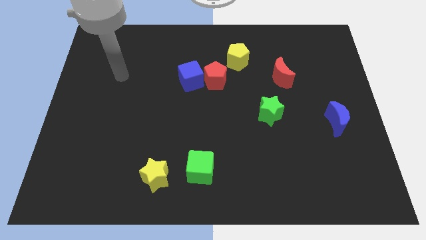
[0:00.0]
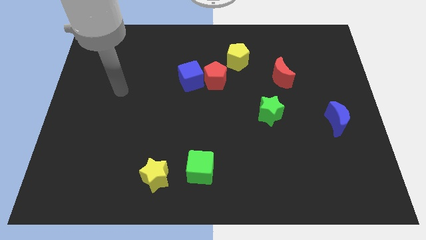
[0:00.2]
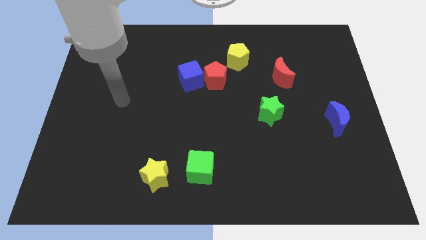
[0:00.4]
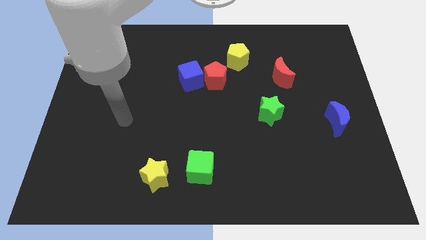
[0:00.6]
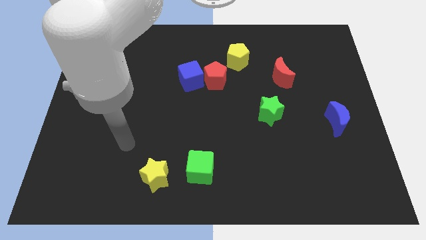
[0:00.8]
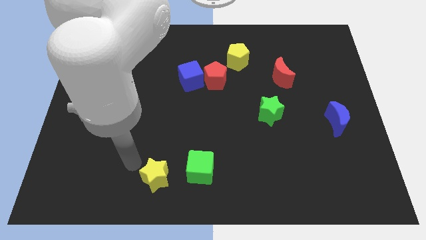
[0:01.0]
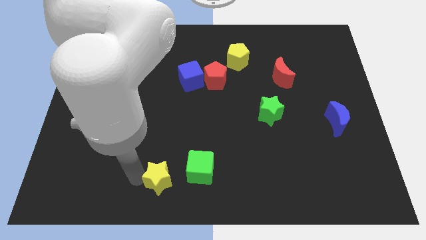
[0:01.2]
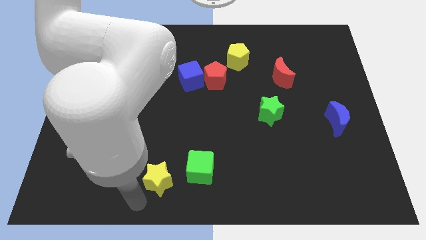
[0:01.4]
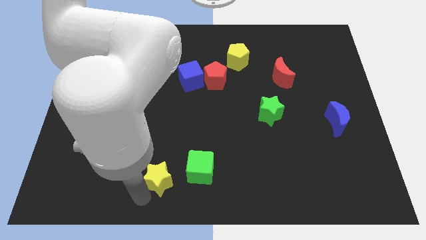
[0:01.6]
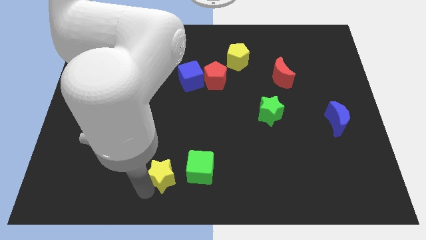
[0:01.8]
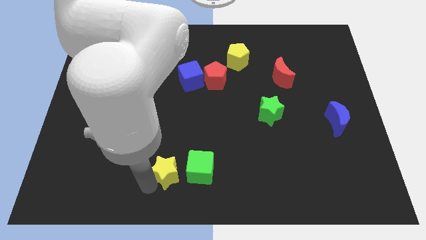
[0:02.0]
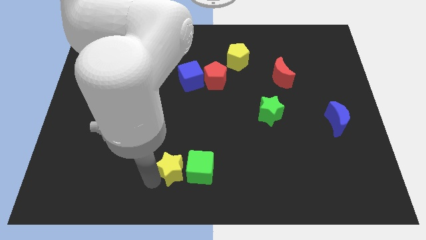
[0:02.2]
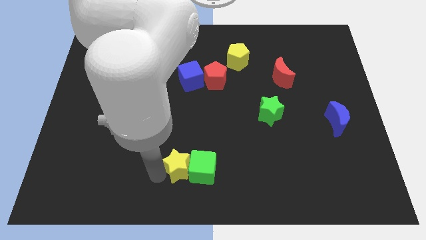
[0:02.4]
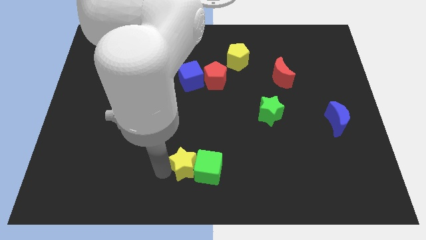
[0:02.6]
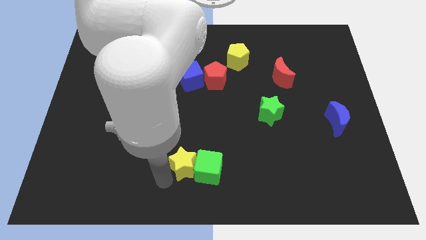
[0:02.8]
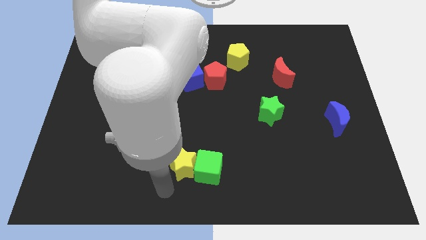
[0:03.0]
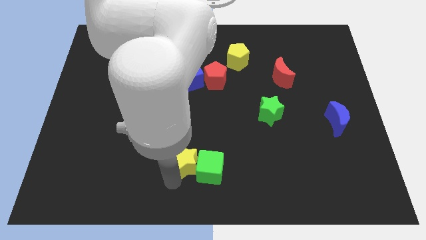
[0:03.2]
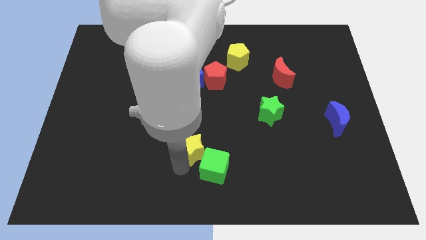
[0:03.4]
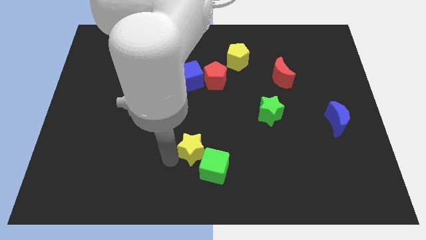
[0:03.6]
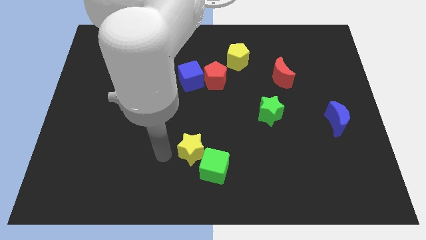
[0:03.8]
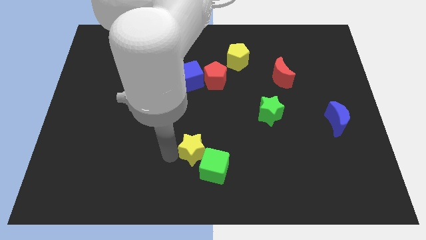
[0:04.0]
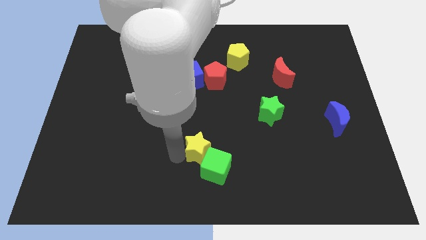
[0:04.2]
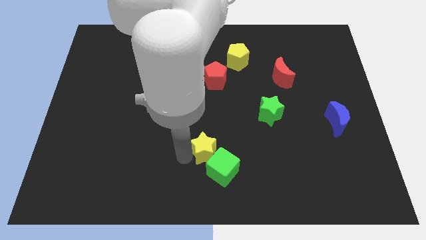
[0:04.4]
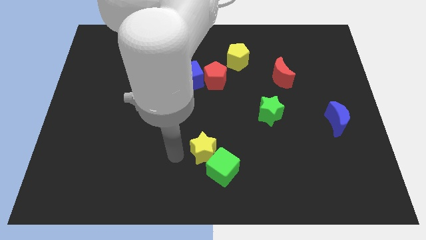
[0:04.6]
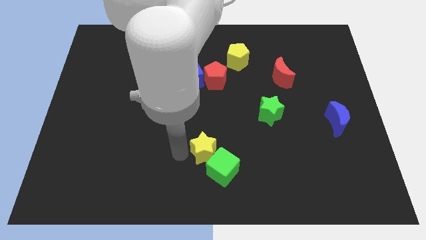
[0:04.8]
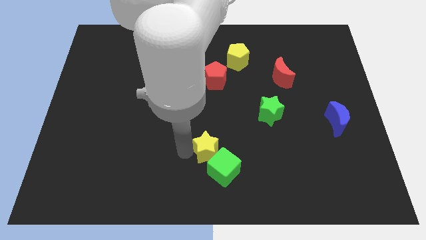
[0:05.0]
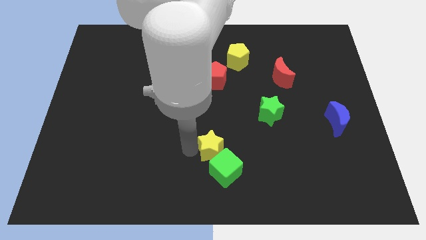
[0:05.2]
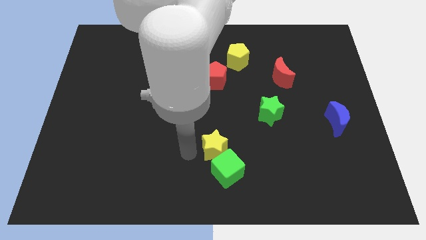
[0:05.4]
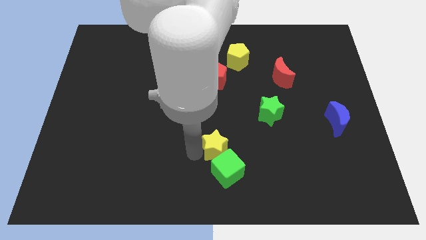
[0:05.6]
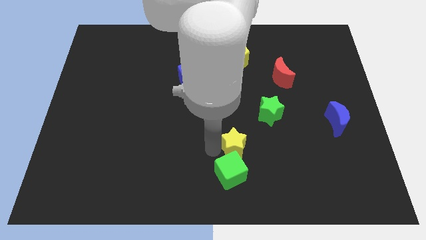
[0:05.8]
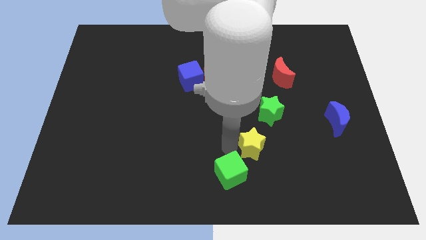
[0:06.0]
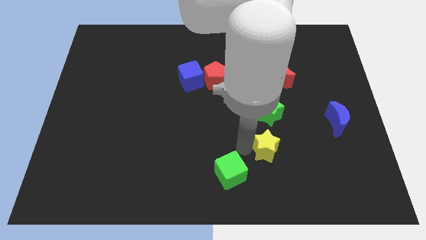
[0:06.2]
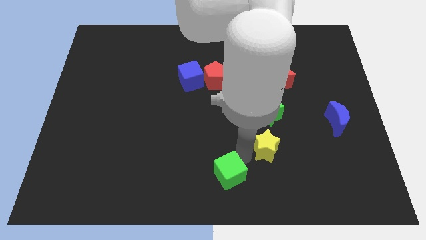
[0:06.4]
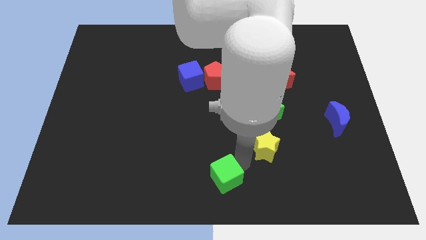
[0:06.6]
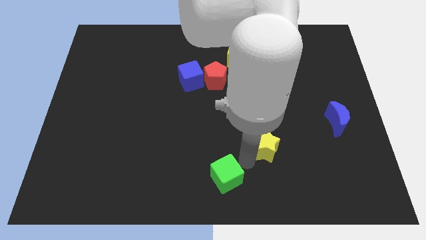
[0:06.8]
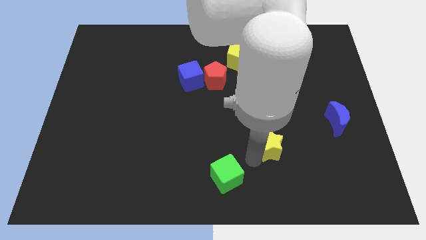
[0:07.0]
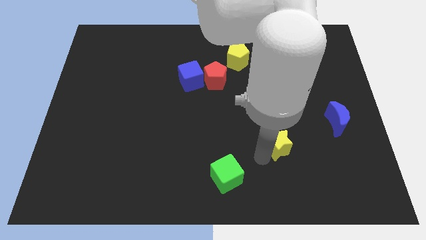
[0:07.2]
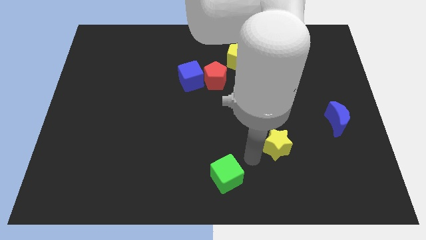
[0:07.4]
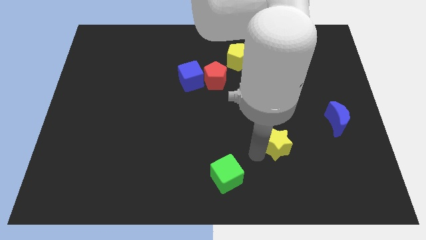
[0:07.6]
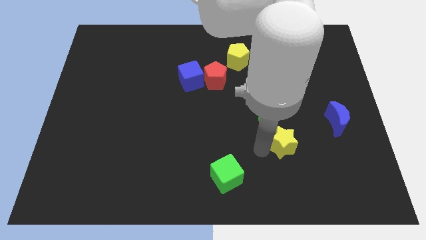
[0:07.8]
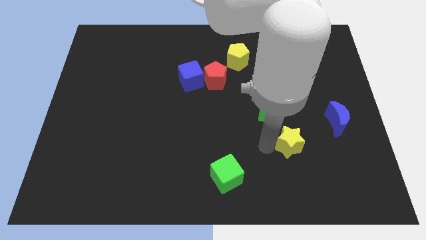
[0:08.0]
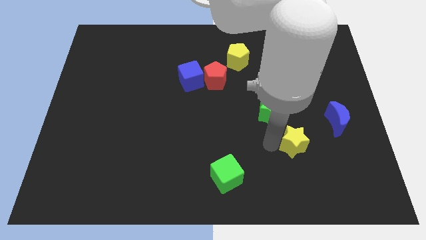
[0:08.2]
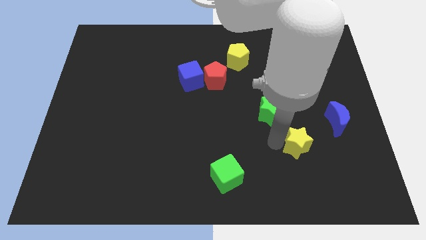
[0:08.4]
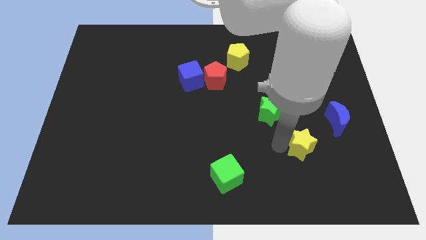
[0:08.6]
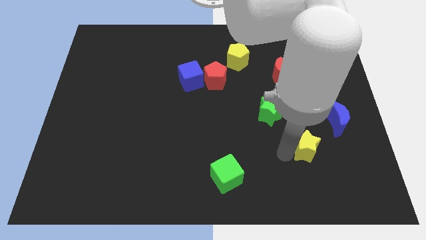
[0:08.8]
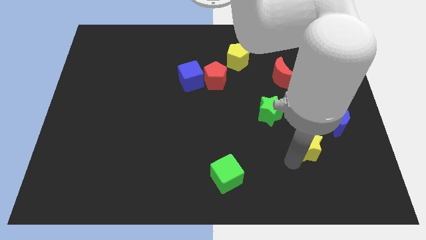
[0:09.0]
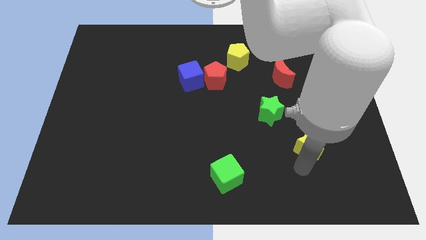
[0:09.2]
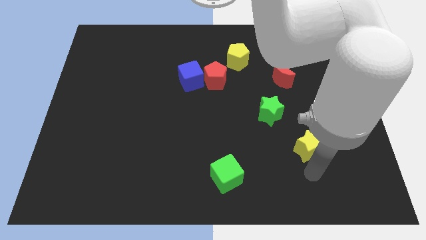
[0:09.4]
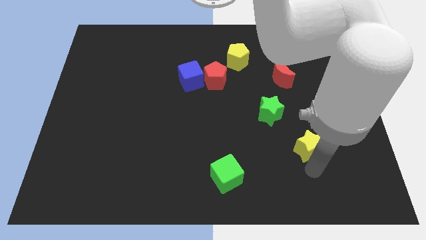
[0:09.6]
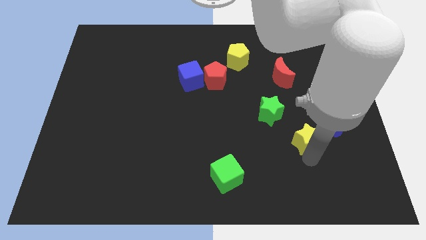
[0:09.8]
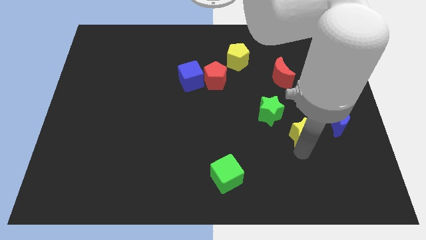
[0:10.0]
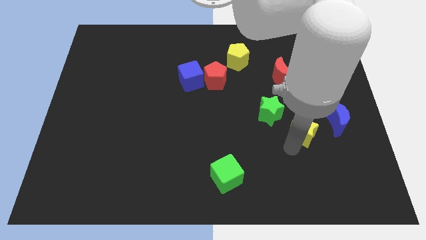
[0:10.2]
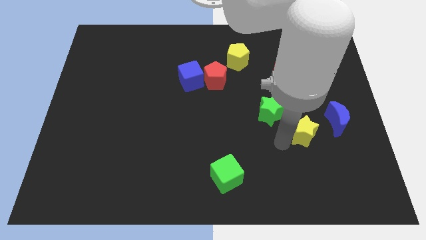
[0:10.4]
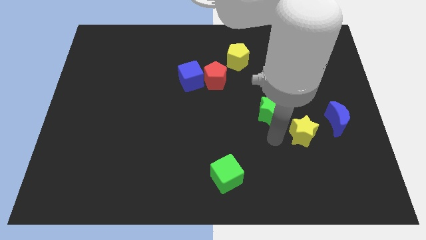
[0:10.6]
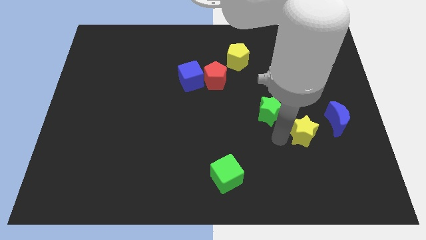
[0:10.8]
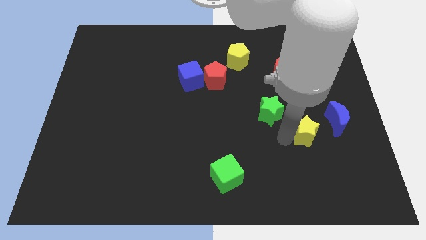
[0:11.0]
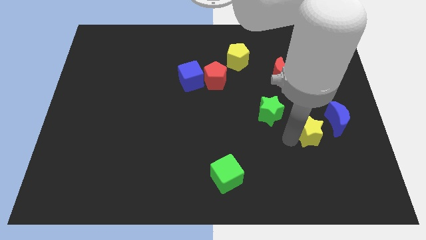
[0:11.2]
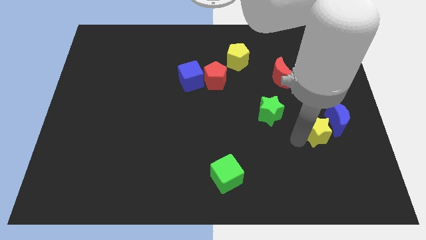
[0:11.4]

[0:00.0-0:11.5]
push the yellow star towards the blue moon

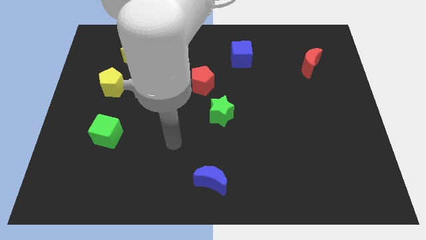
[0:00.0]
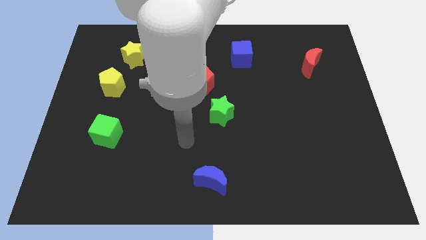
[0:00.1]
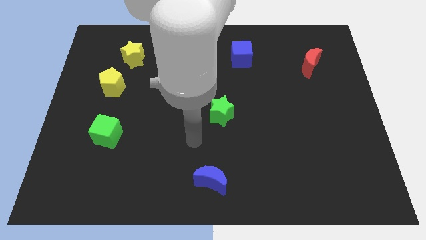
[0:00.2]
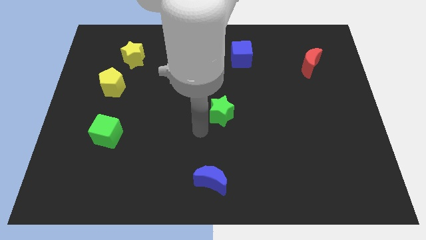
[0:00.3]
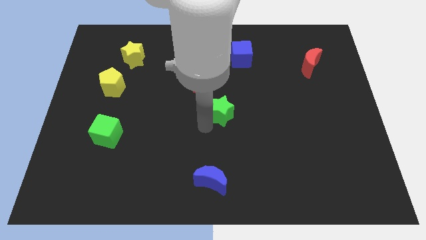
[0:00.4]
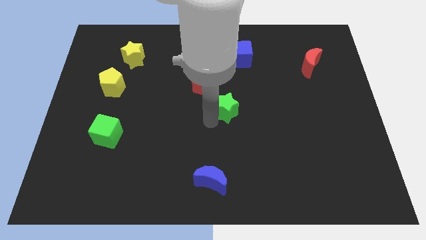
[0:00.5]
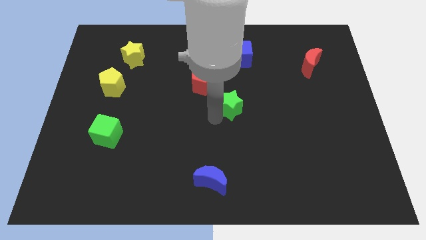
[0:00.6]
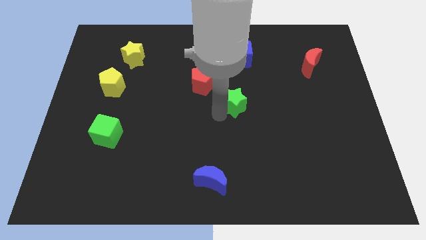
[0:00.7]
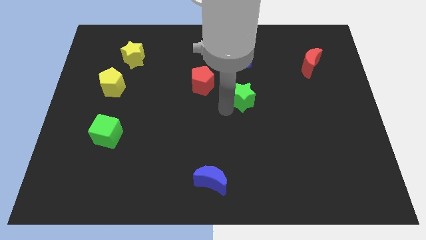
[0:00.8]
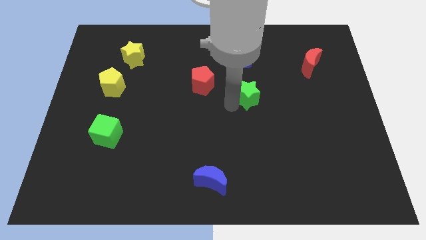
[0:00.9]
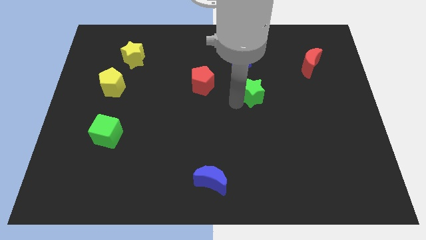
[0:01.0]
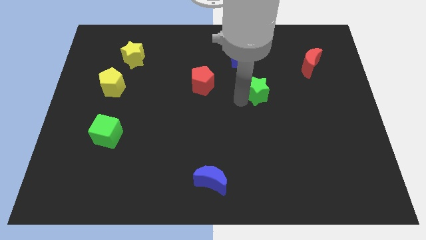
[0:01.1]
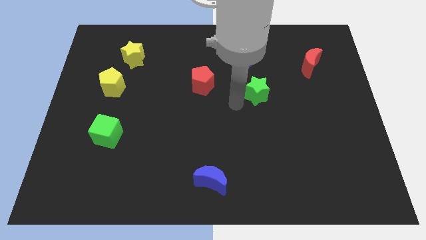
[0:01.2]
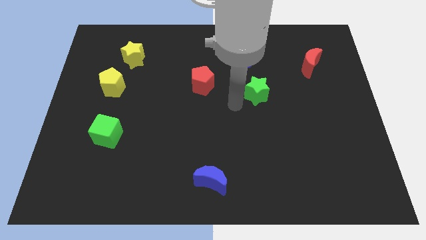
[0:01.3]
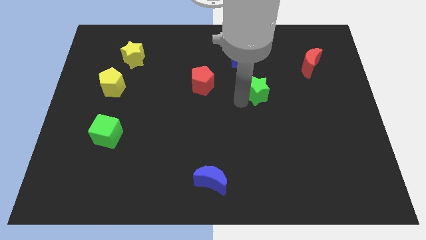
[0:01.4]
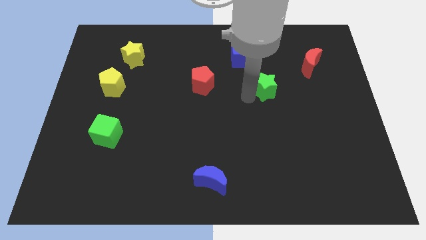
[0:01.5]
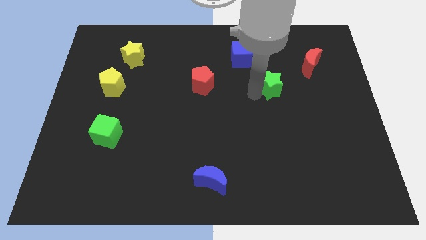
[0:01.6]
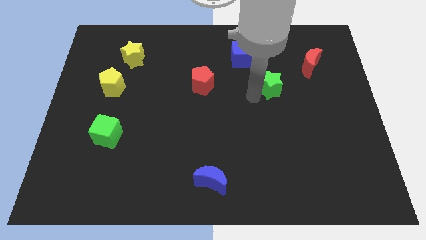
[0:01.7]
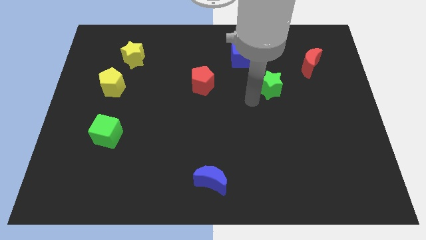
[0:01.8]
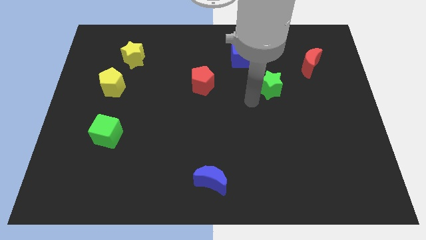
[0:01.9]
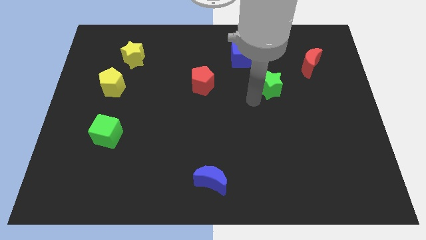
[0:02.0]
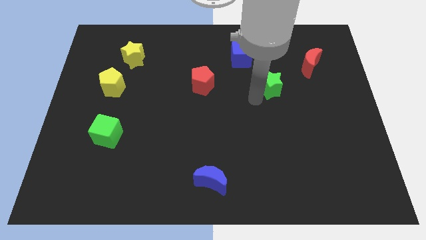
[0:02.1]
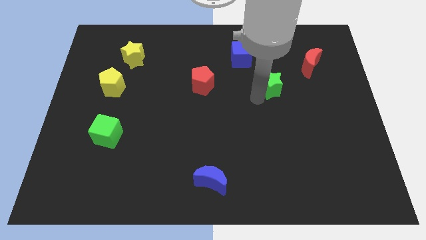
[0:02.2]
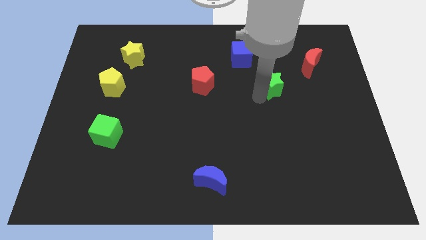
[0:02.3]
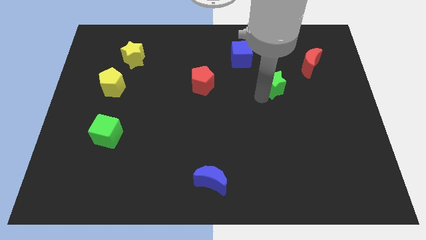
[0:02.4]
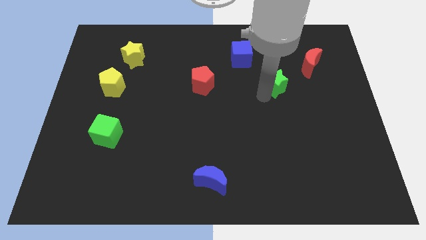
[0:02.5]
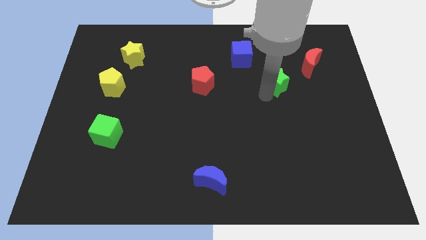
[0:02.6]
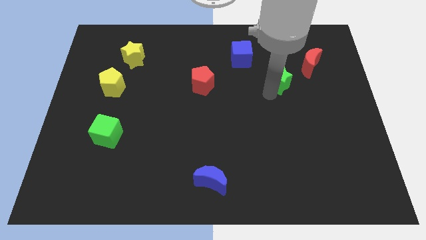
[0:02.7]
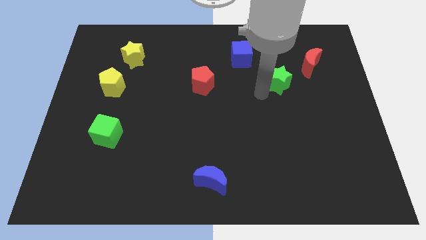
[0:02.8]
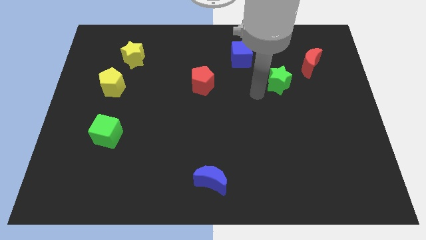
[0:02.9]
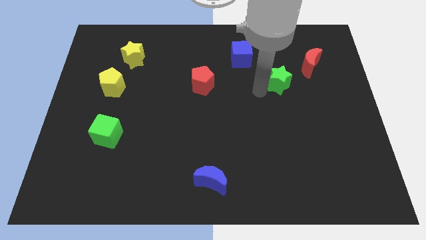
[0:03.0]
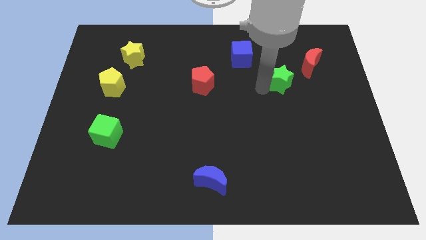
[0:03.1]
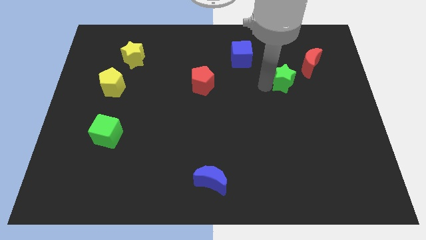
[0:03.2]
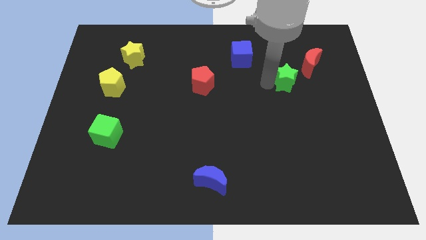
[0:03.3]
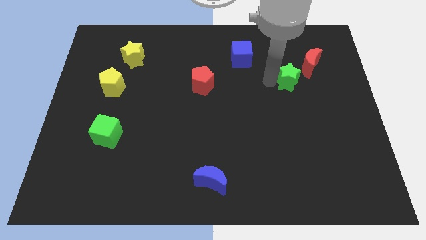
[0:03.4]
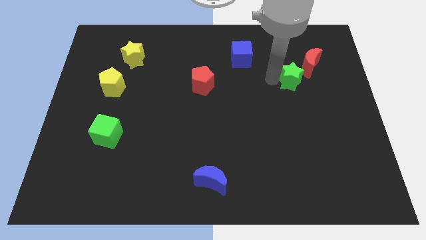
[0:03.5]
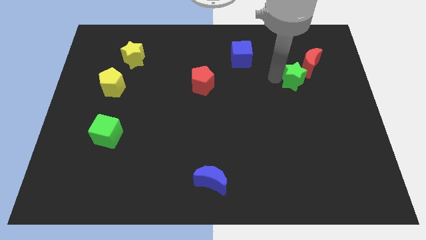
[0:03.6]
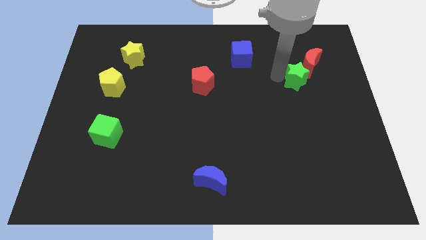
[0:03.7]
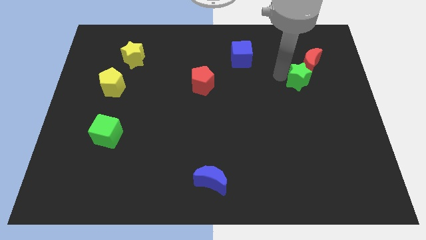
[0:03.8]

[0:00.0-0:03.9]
put the green star towards the red moon
